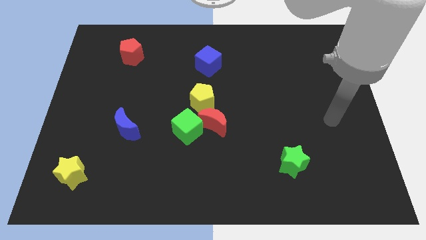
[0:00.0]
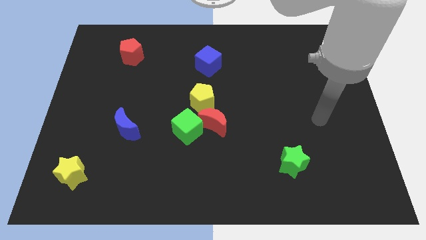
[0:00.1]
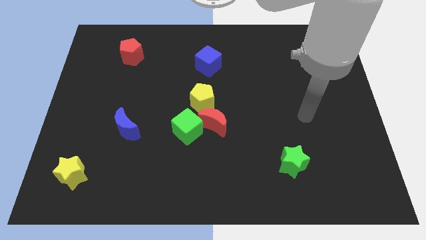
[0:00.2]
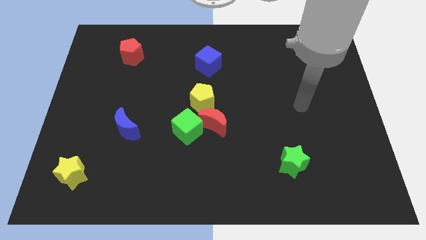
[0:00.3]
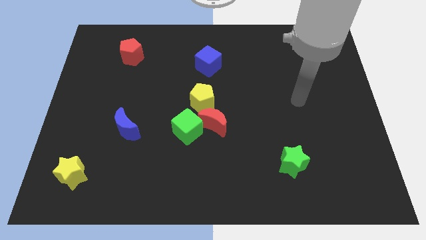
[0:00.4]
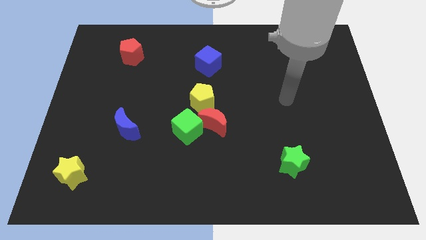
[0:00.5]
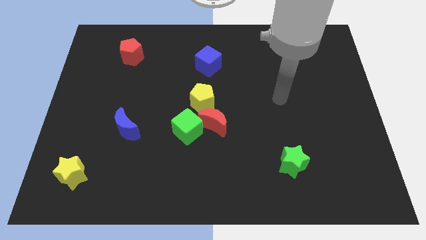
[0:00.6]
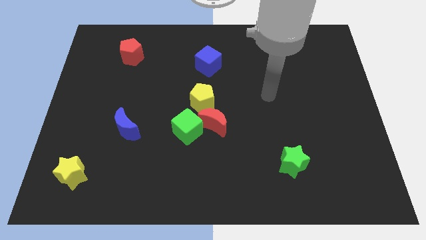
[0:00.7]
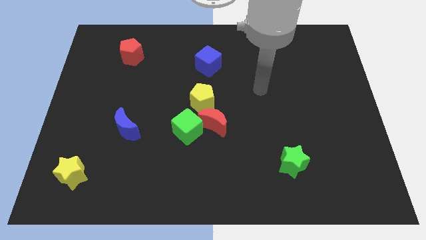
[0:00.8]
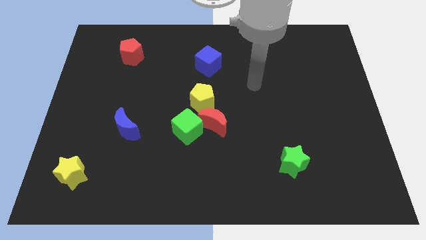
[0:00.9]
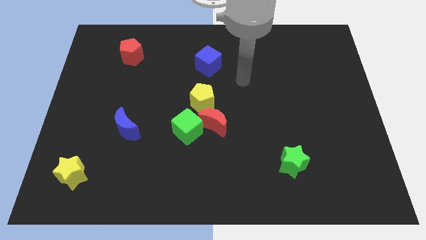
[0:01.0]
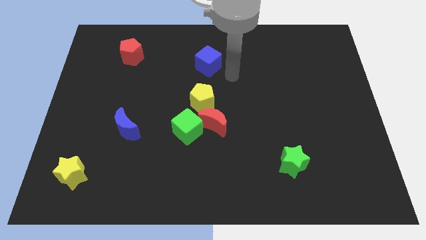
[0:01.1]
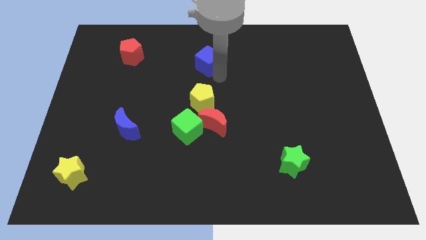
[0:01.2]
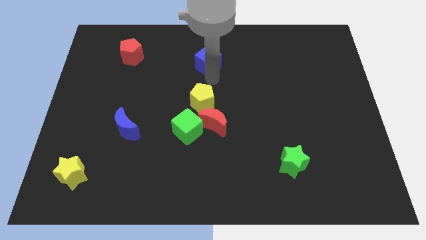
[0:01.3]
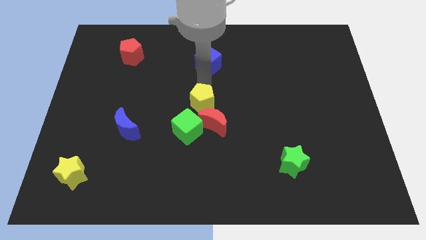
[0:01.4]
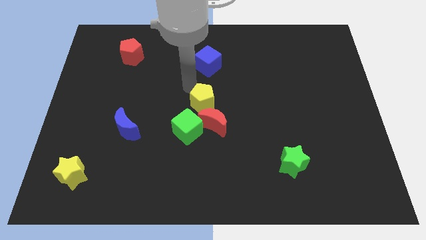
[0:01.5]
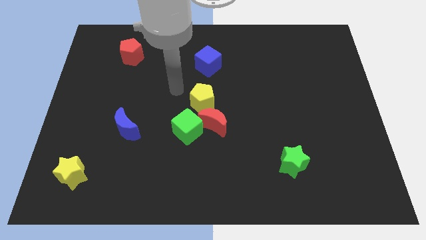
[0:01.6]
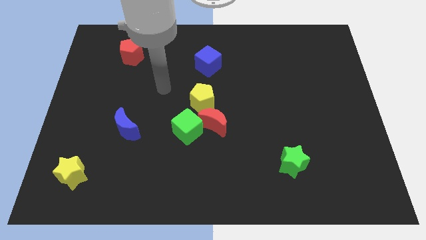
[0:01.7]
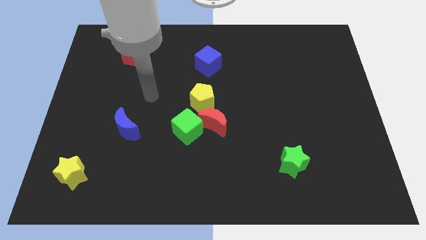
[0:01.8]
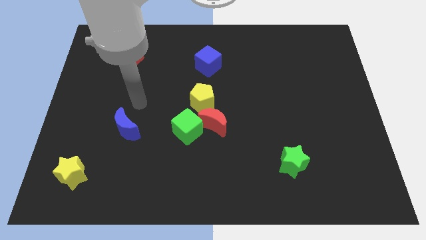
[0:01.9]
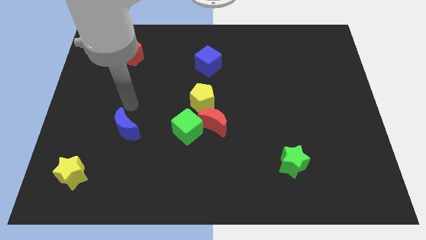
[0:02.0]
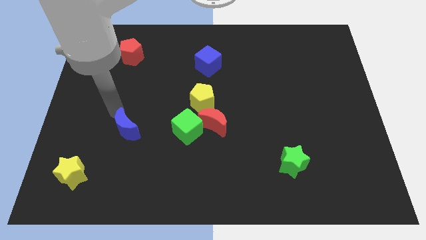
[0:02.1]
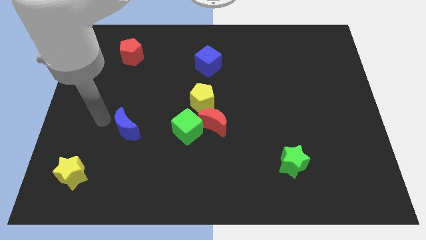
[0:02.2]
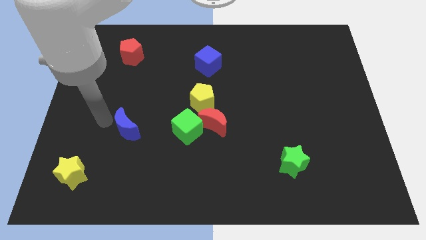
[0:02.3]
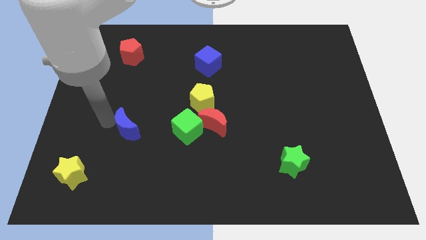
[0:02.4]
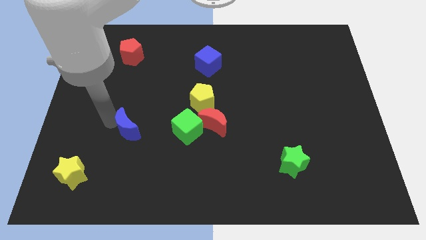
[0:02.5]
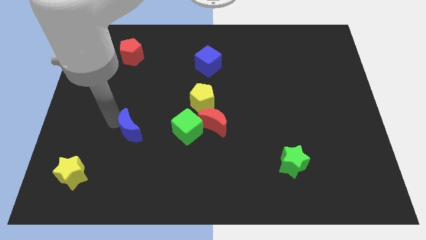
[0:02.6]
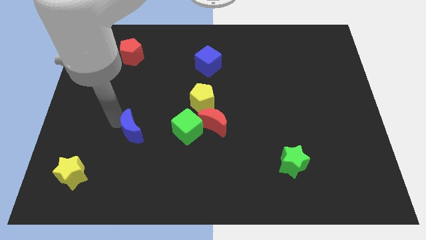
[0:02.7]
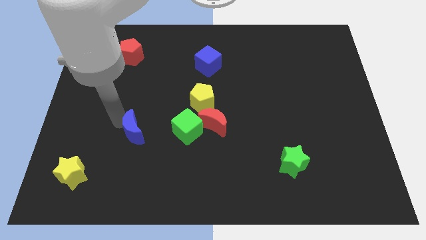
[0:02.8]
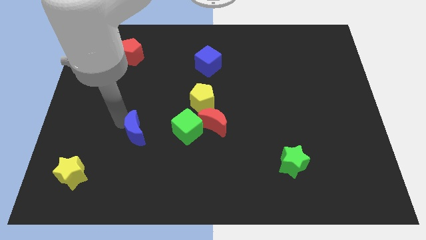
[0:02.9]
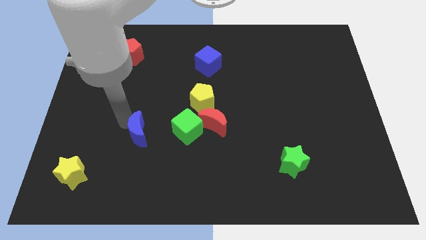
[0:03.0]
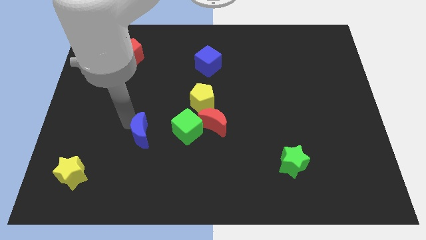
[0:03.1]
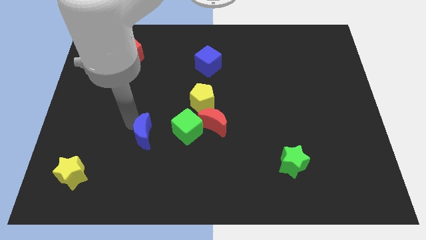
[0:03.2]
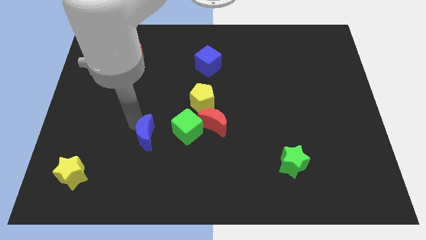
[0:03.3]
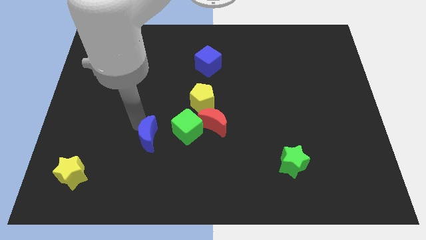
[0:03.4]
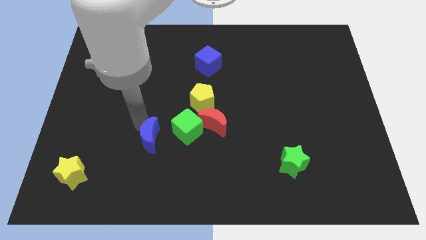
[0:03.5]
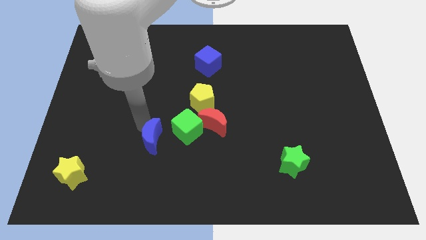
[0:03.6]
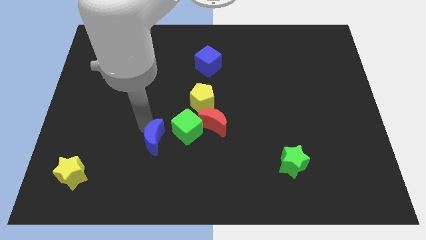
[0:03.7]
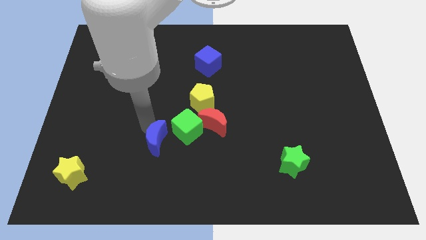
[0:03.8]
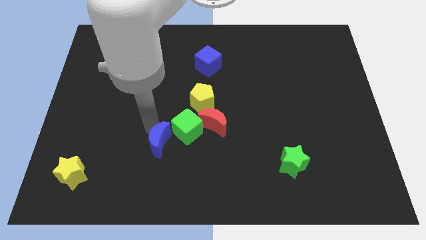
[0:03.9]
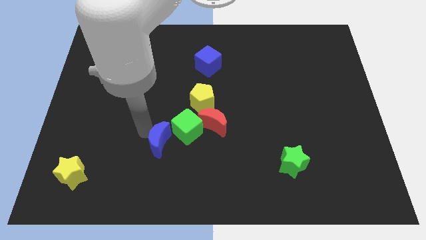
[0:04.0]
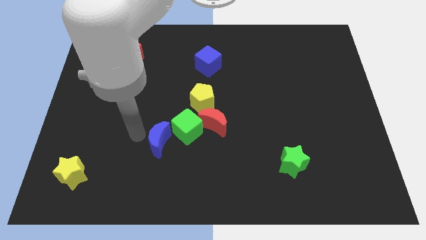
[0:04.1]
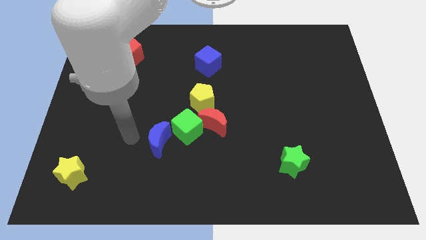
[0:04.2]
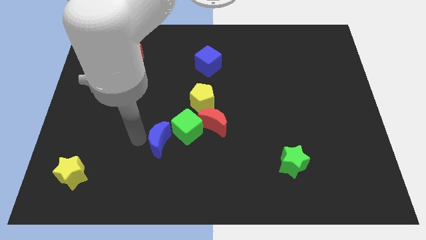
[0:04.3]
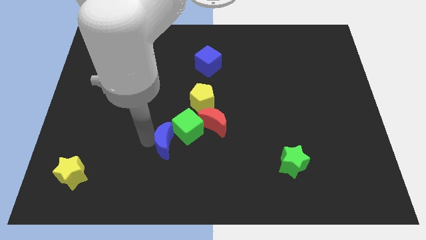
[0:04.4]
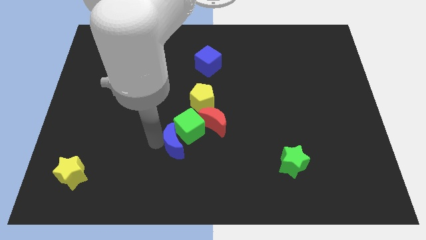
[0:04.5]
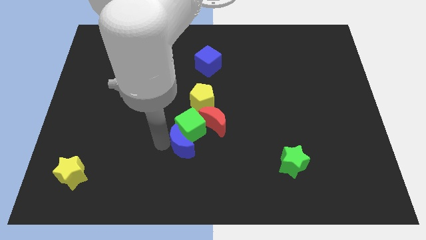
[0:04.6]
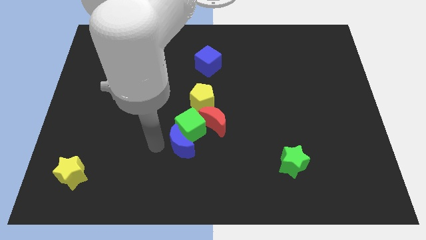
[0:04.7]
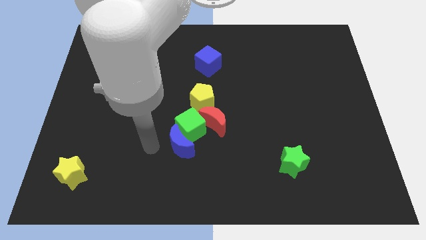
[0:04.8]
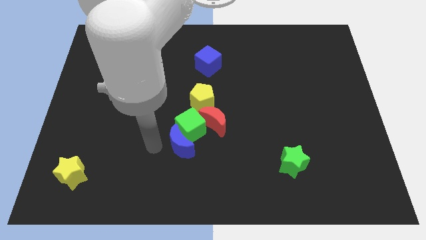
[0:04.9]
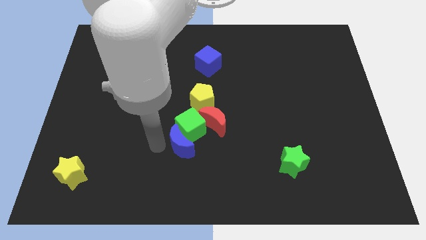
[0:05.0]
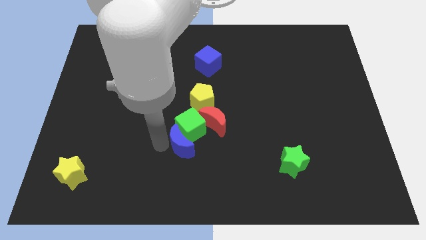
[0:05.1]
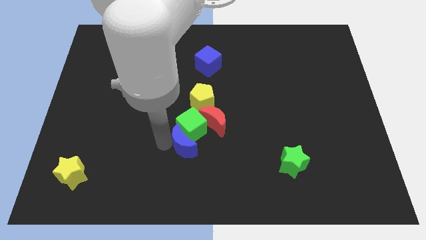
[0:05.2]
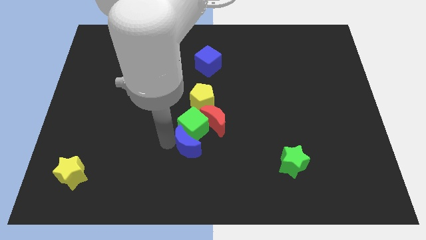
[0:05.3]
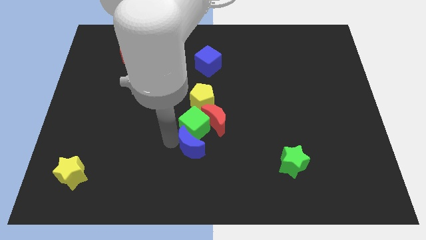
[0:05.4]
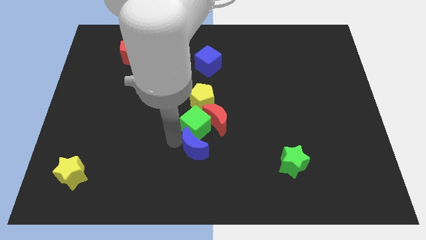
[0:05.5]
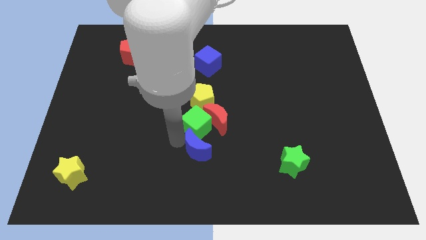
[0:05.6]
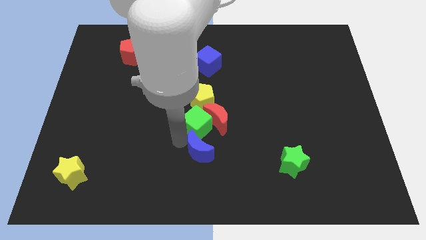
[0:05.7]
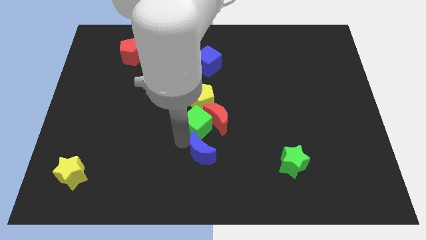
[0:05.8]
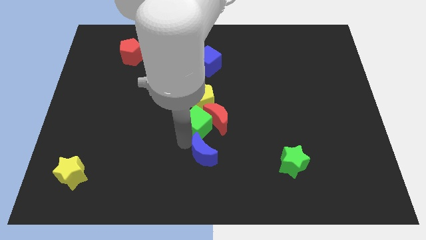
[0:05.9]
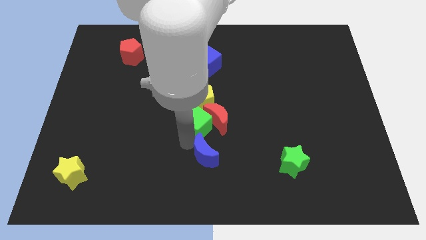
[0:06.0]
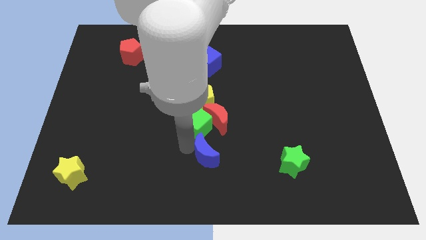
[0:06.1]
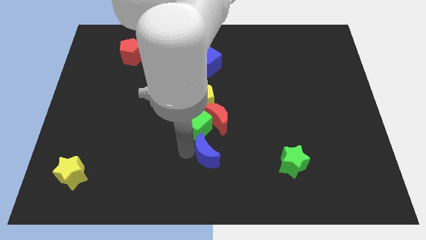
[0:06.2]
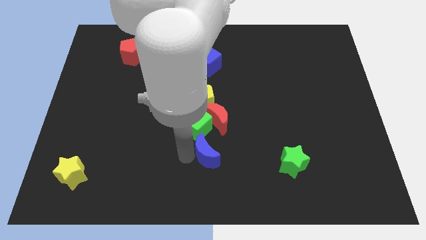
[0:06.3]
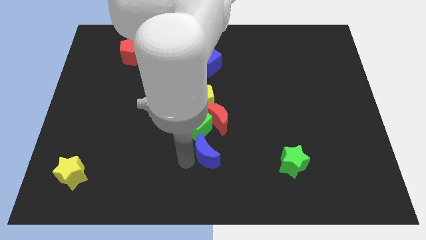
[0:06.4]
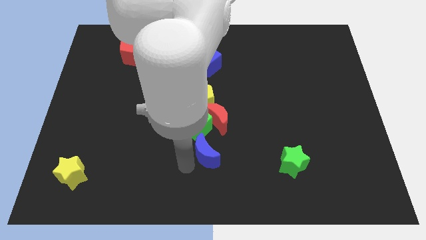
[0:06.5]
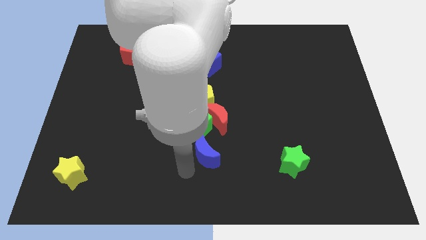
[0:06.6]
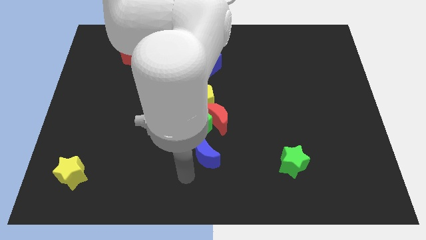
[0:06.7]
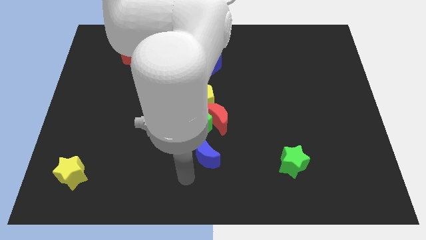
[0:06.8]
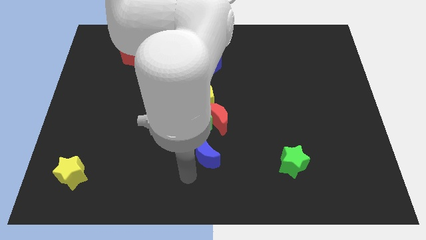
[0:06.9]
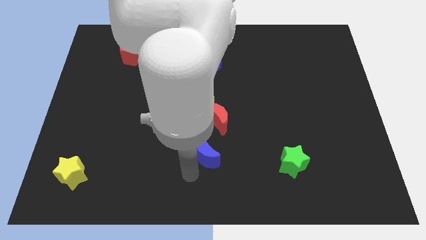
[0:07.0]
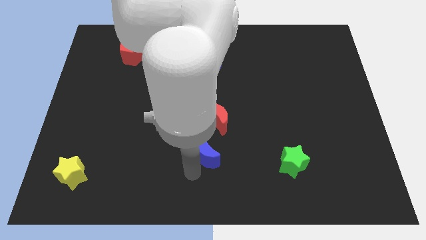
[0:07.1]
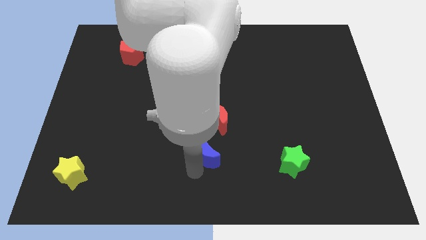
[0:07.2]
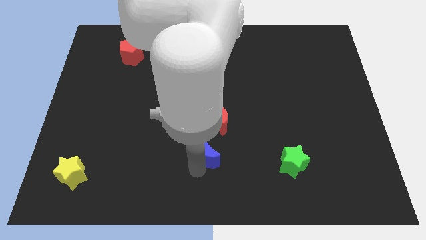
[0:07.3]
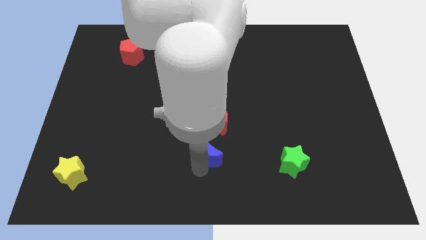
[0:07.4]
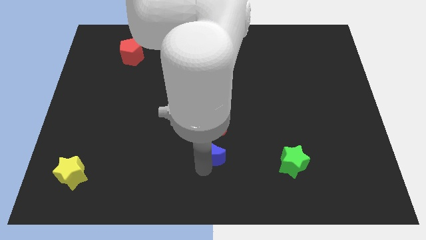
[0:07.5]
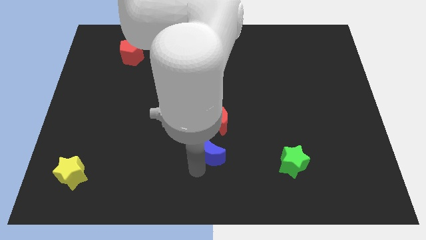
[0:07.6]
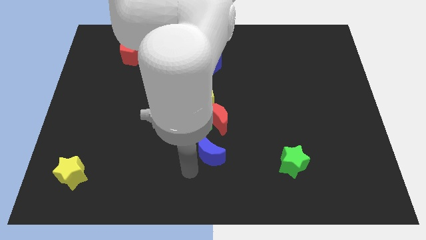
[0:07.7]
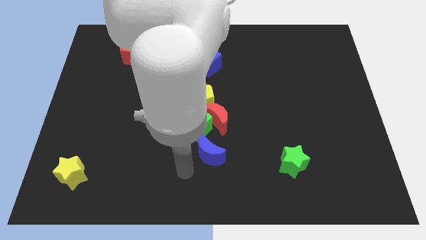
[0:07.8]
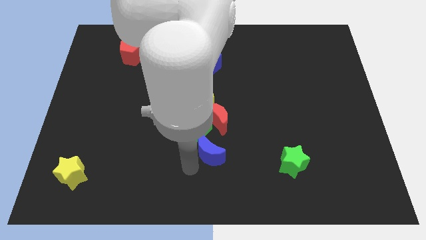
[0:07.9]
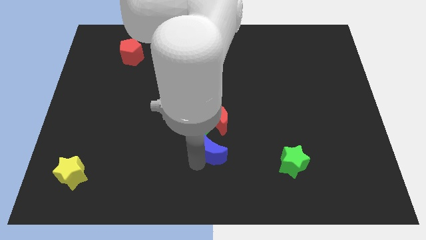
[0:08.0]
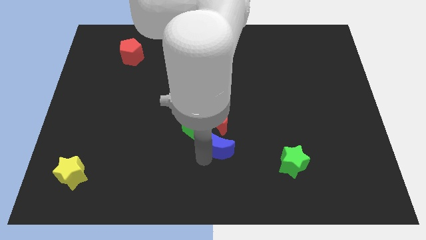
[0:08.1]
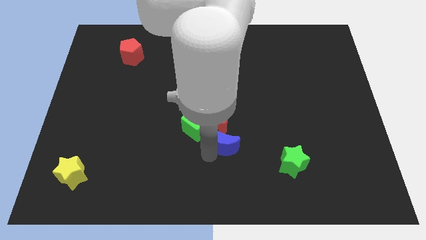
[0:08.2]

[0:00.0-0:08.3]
push the blue moon to the right

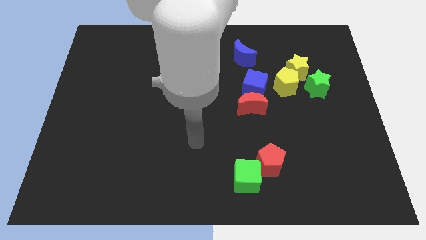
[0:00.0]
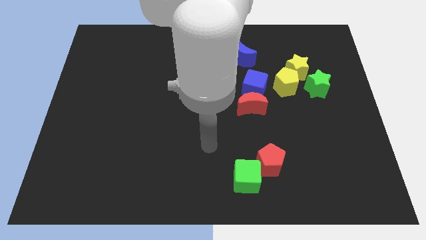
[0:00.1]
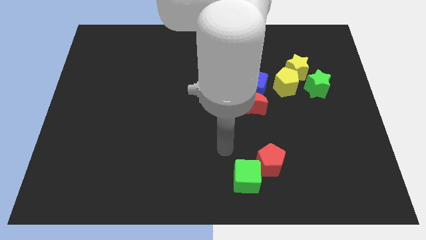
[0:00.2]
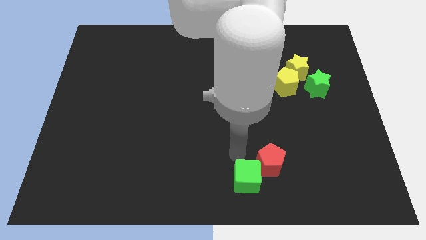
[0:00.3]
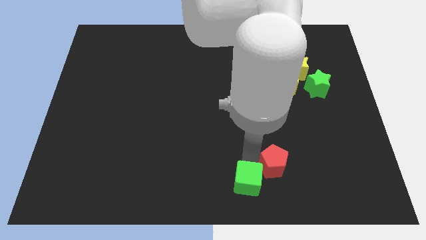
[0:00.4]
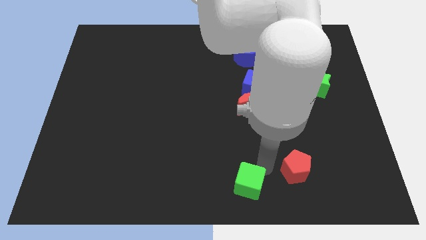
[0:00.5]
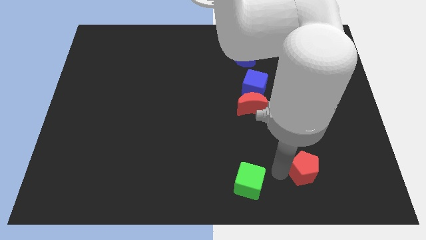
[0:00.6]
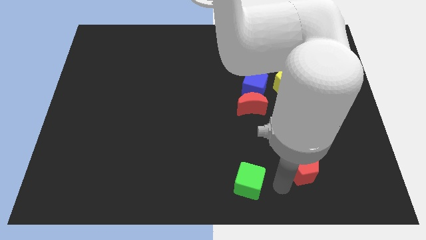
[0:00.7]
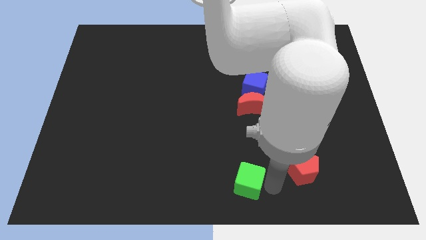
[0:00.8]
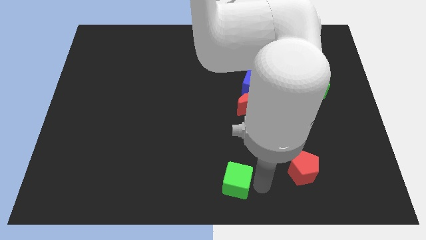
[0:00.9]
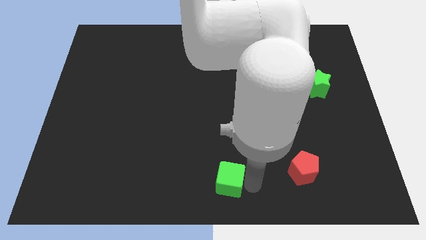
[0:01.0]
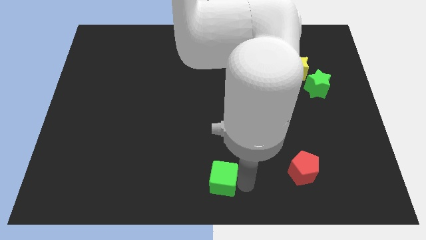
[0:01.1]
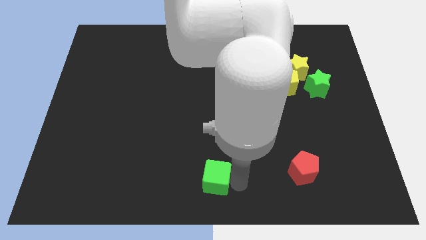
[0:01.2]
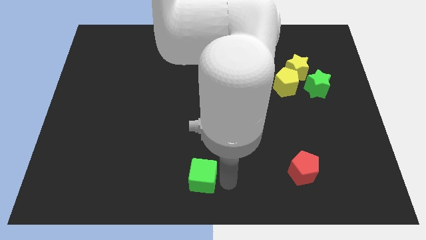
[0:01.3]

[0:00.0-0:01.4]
move the green cube somewhat to the left
